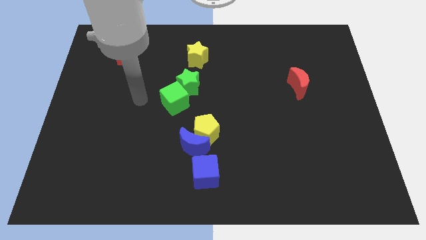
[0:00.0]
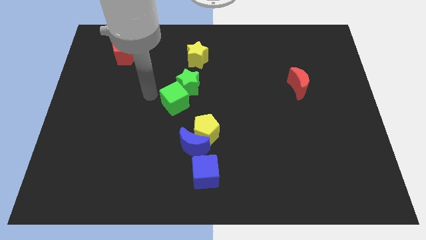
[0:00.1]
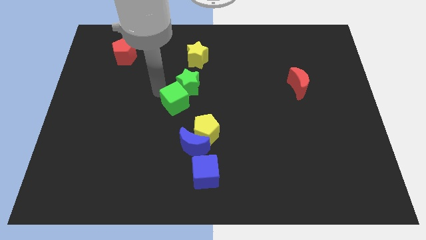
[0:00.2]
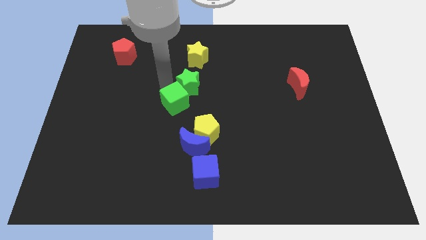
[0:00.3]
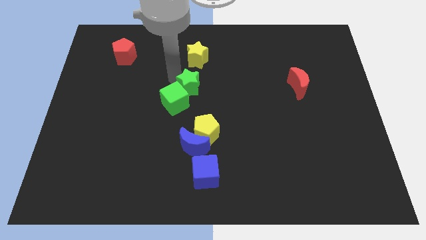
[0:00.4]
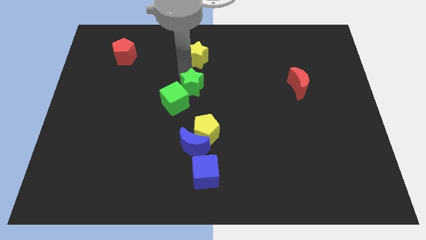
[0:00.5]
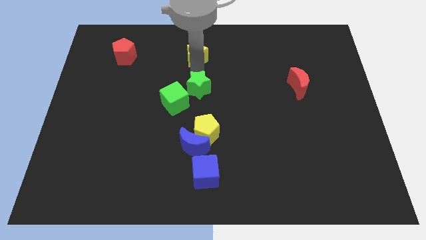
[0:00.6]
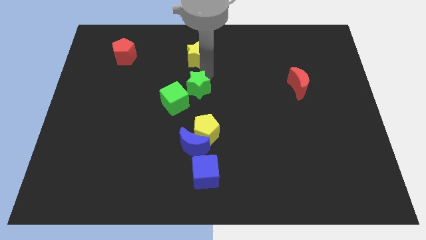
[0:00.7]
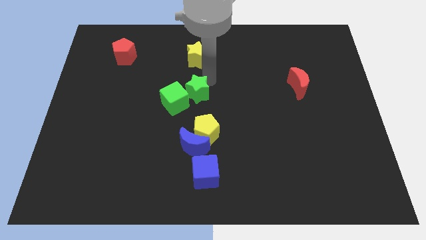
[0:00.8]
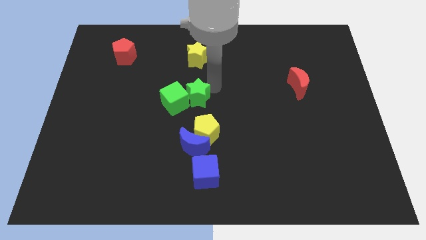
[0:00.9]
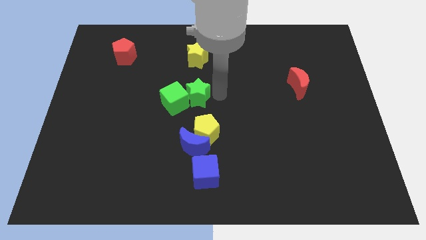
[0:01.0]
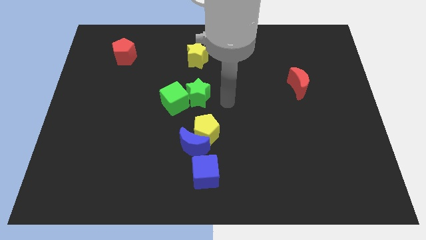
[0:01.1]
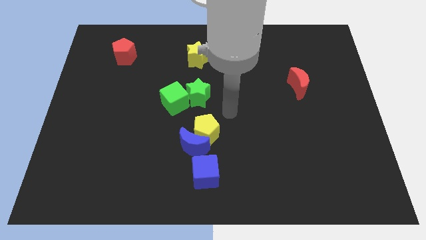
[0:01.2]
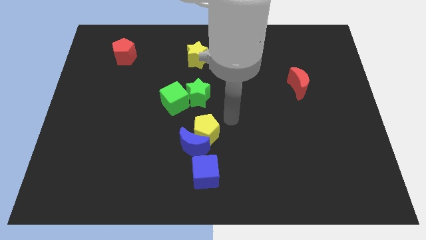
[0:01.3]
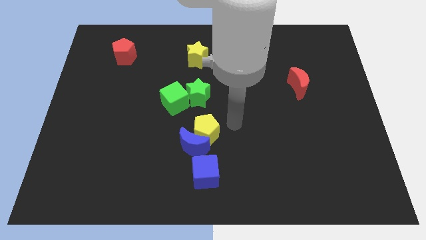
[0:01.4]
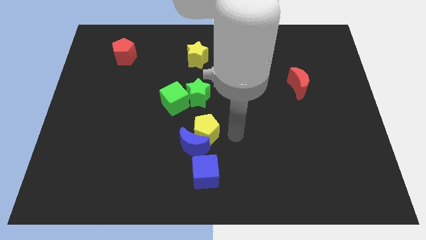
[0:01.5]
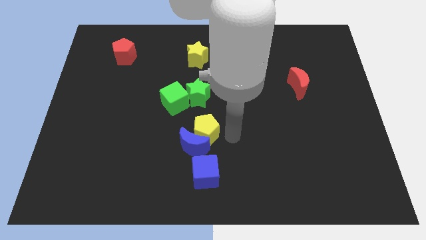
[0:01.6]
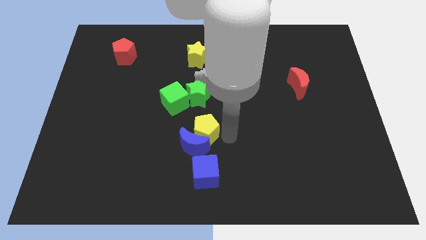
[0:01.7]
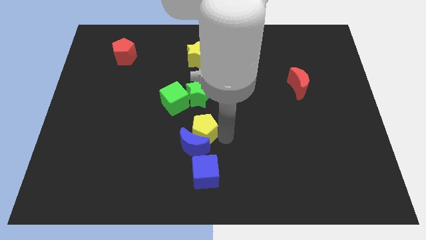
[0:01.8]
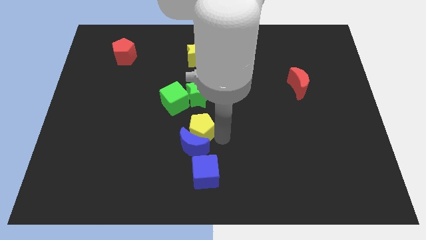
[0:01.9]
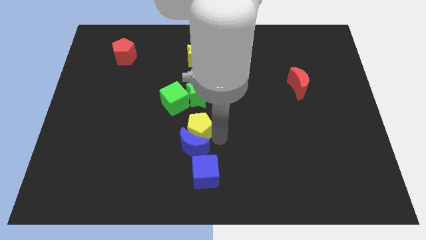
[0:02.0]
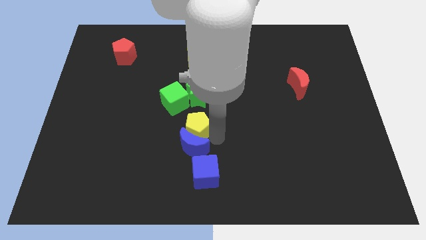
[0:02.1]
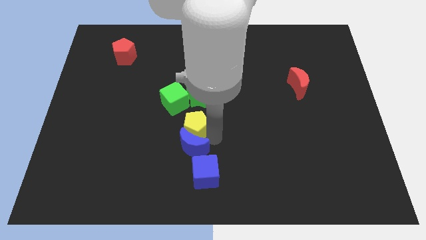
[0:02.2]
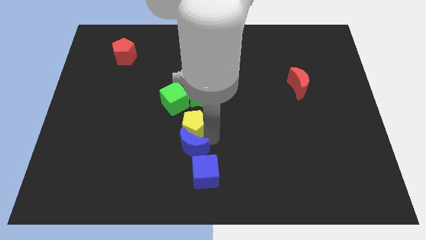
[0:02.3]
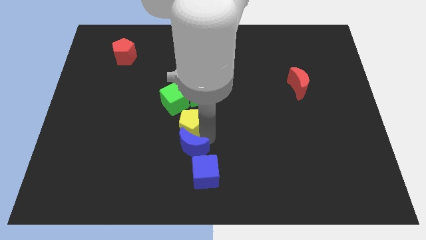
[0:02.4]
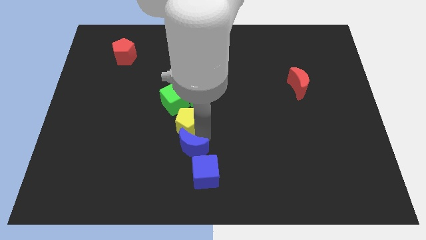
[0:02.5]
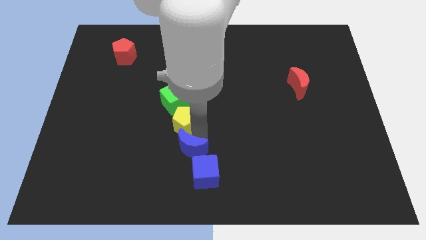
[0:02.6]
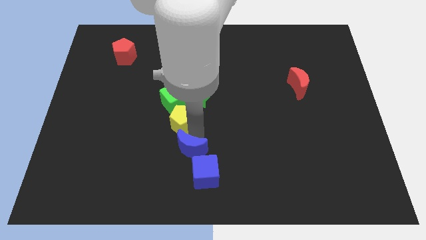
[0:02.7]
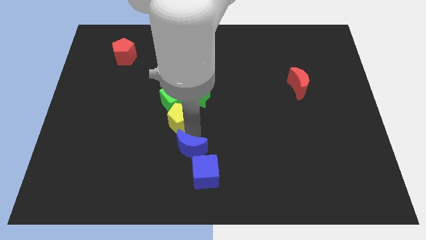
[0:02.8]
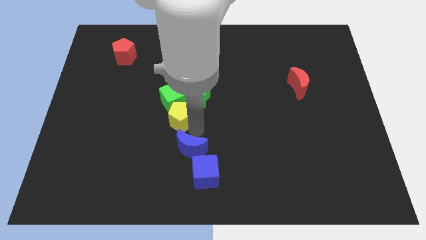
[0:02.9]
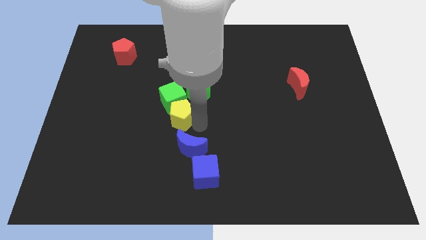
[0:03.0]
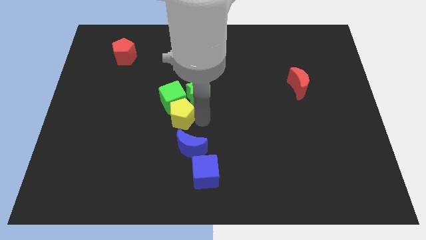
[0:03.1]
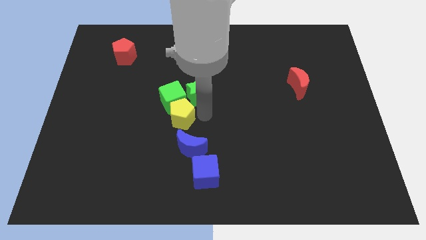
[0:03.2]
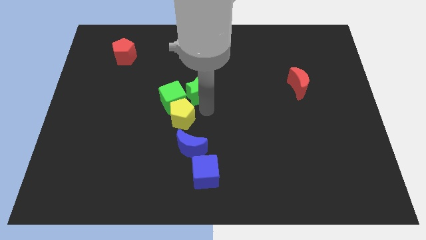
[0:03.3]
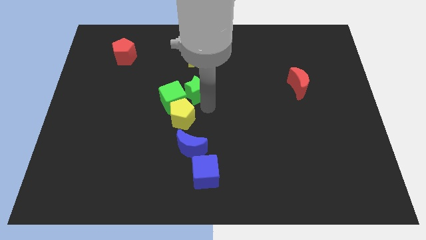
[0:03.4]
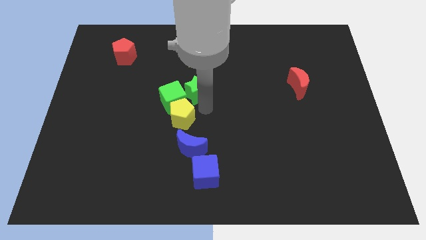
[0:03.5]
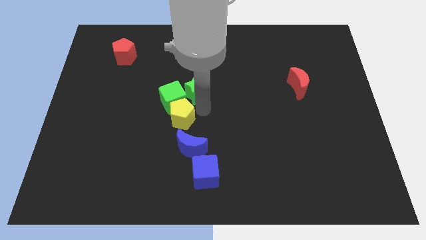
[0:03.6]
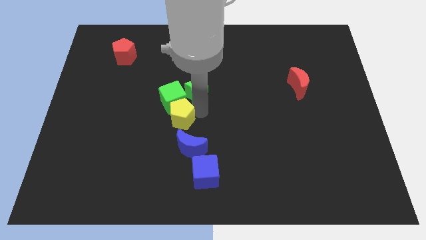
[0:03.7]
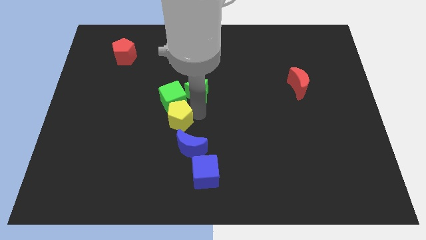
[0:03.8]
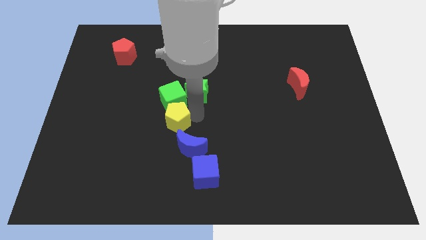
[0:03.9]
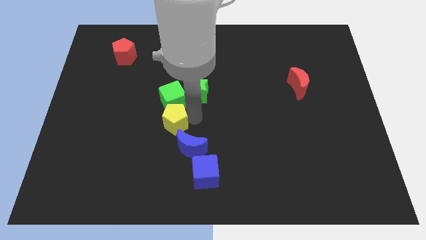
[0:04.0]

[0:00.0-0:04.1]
push the yellow pentagon to the left a bit

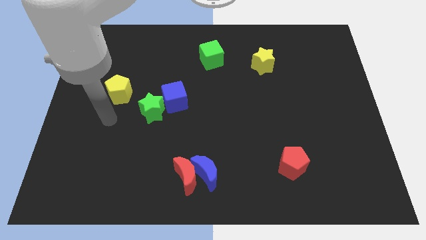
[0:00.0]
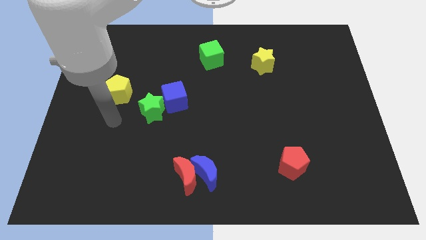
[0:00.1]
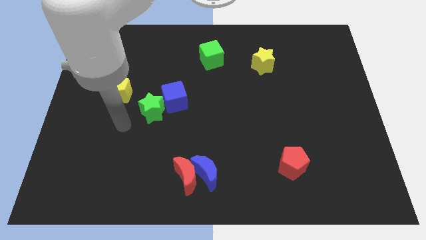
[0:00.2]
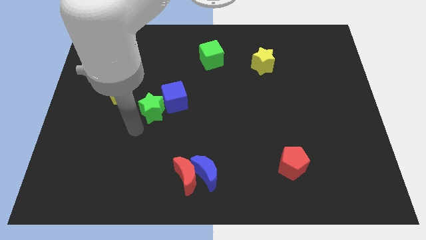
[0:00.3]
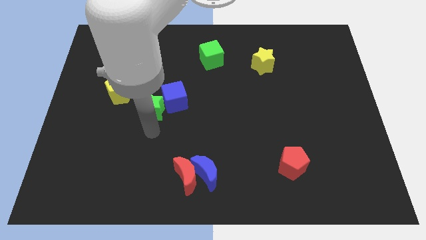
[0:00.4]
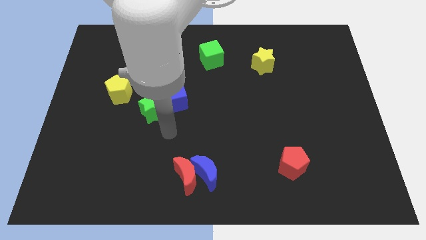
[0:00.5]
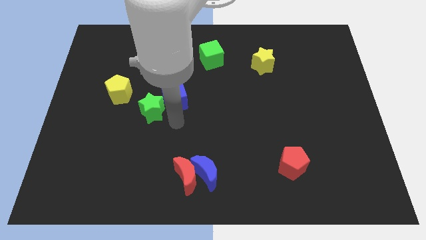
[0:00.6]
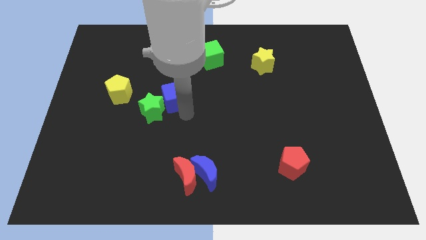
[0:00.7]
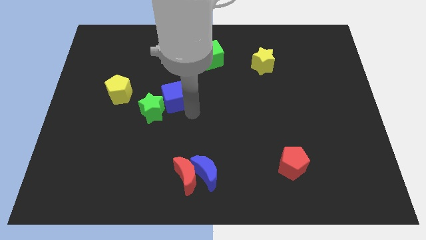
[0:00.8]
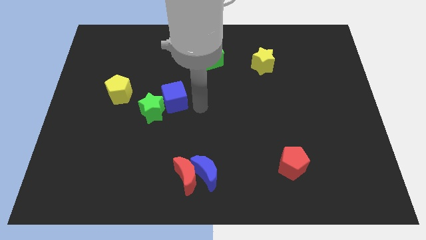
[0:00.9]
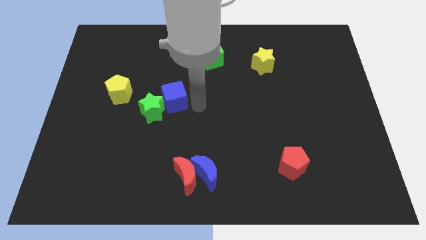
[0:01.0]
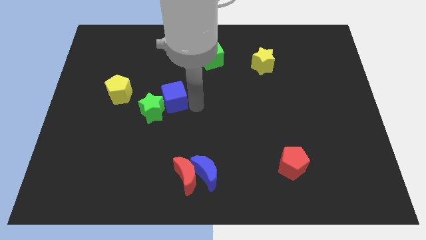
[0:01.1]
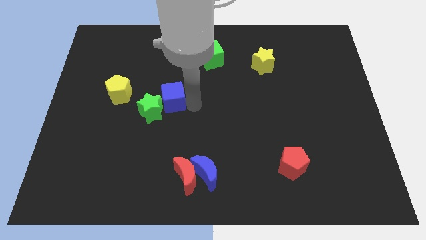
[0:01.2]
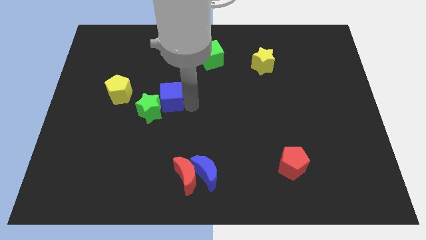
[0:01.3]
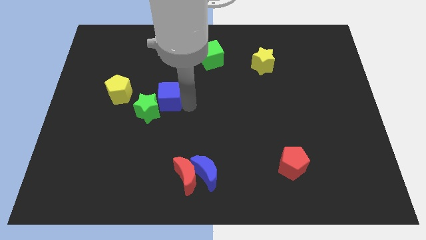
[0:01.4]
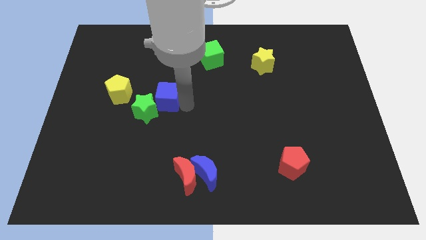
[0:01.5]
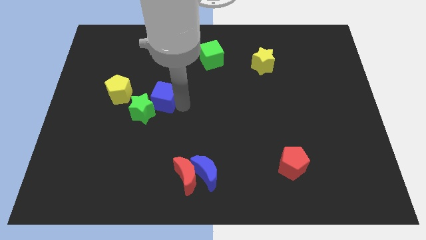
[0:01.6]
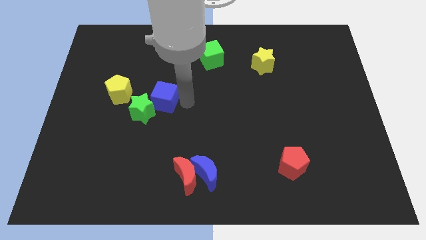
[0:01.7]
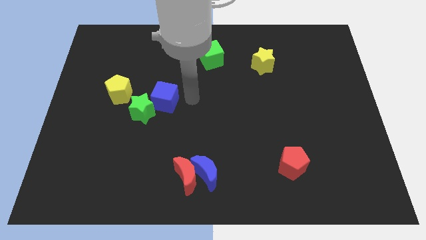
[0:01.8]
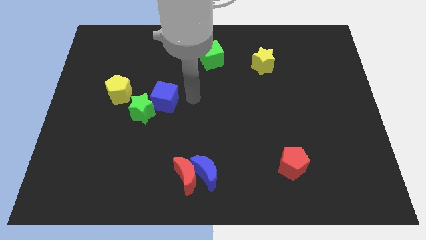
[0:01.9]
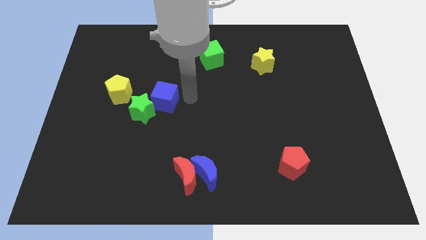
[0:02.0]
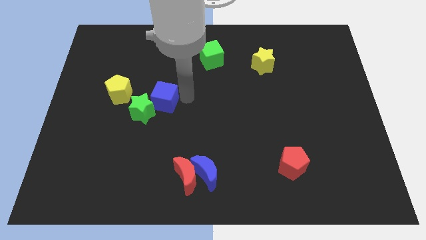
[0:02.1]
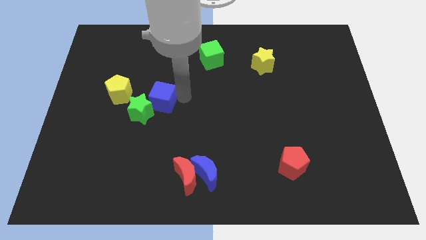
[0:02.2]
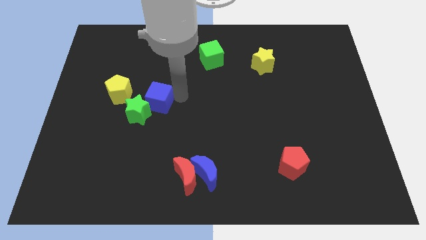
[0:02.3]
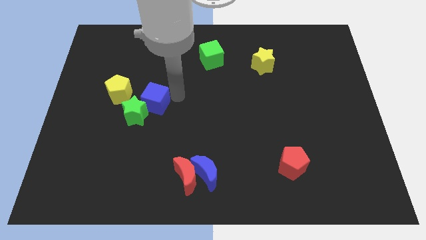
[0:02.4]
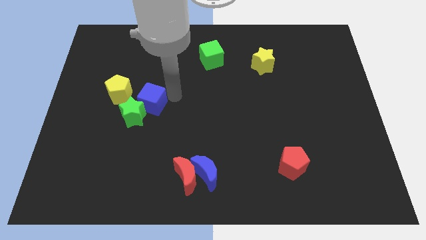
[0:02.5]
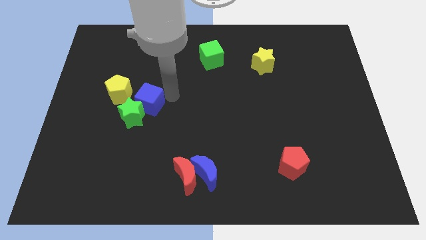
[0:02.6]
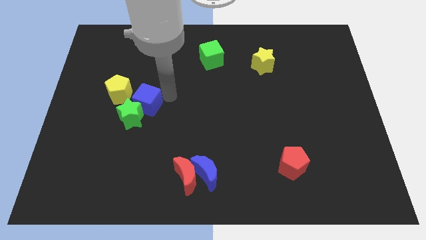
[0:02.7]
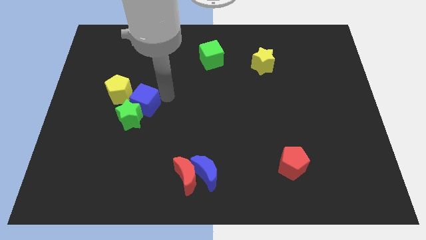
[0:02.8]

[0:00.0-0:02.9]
slide the blue cube to the left a bit

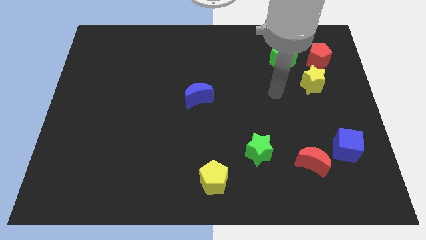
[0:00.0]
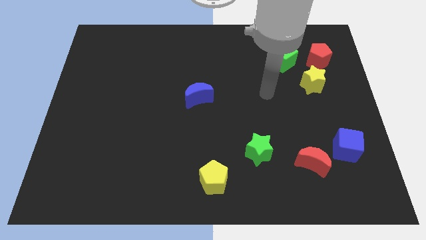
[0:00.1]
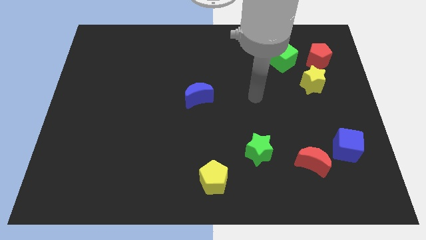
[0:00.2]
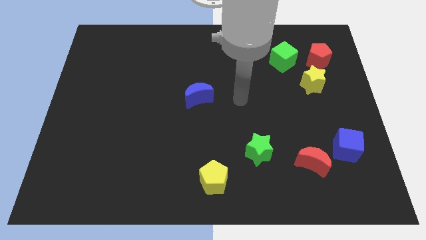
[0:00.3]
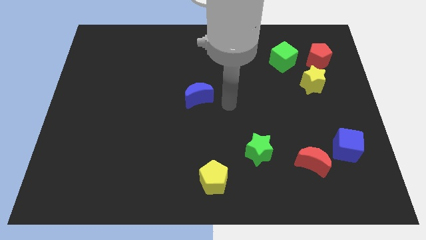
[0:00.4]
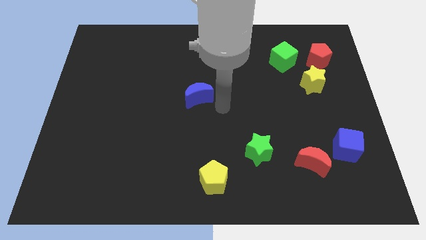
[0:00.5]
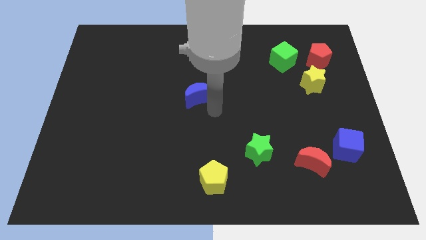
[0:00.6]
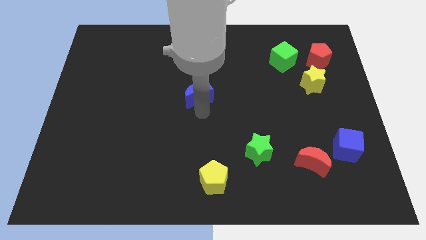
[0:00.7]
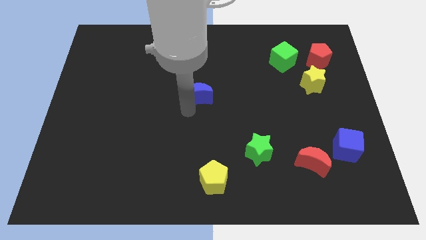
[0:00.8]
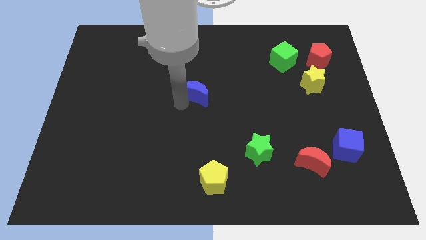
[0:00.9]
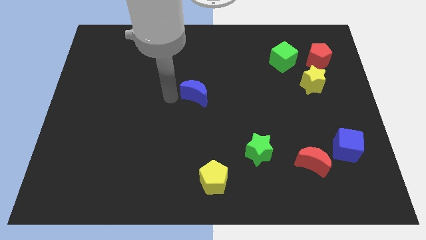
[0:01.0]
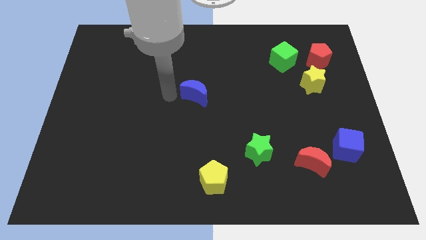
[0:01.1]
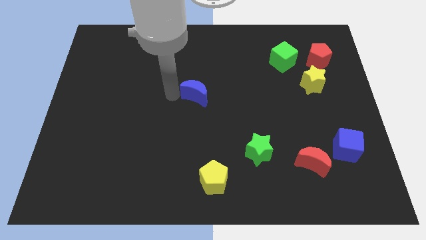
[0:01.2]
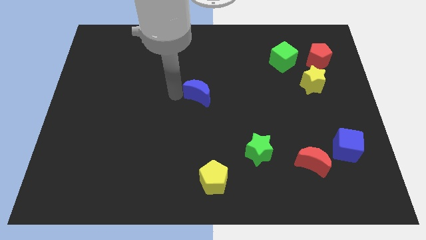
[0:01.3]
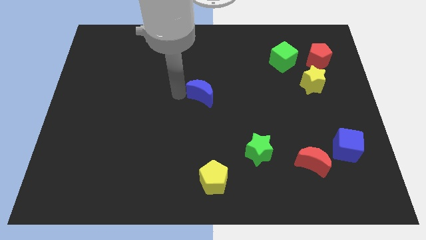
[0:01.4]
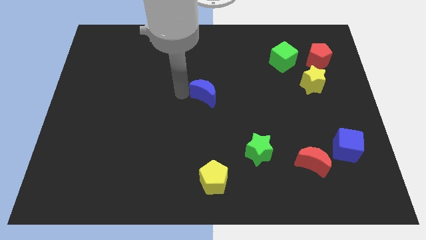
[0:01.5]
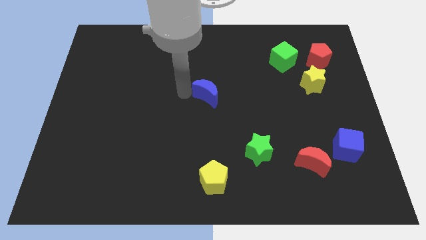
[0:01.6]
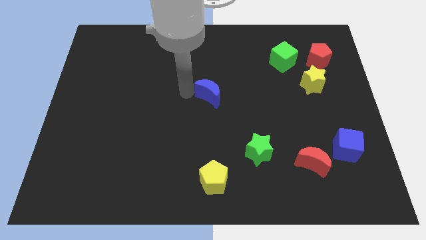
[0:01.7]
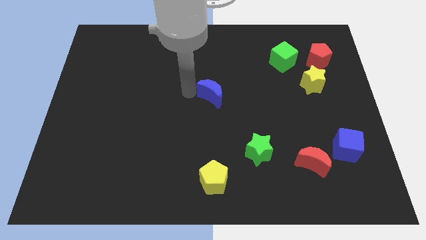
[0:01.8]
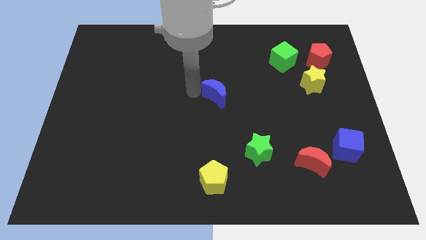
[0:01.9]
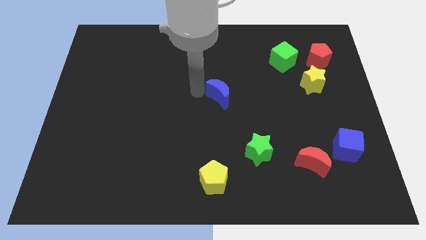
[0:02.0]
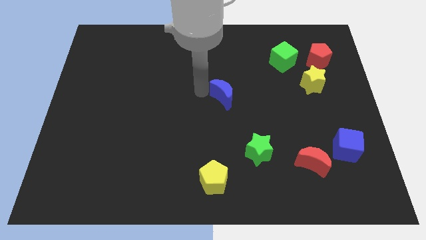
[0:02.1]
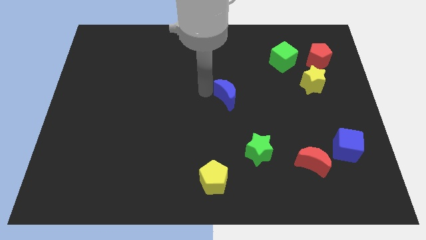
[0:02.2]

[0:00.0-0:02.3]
move the blue moon to the right a bit
